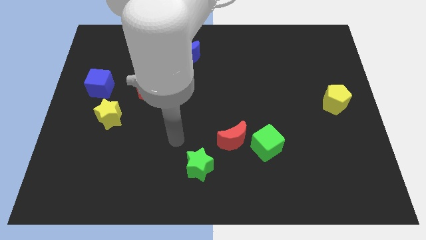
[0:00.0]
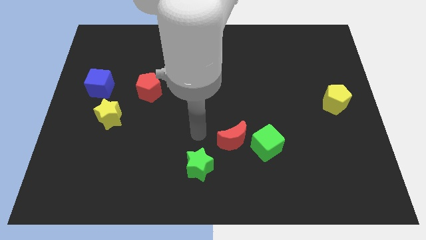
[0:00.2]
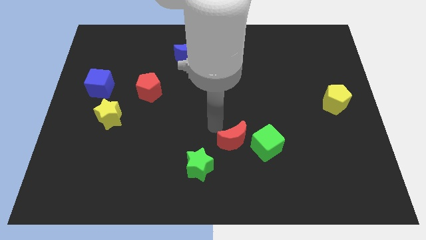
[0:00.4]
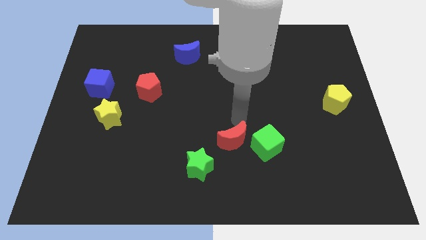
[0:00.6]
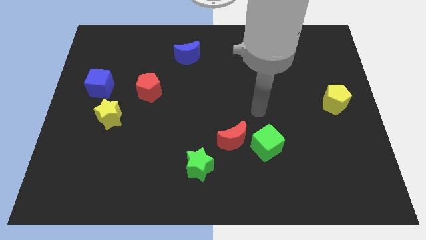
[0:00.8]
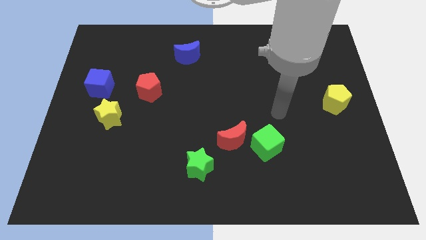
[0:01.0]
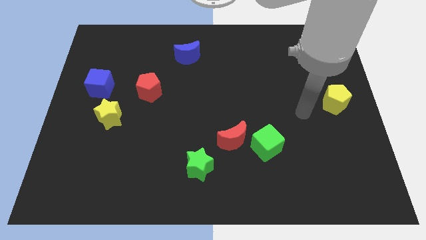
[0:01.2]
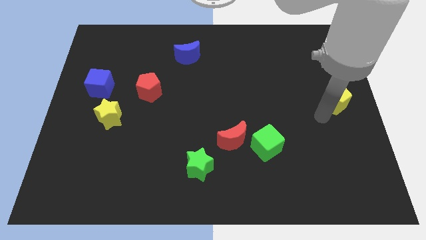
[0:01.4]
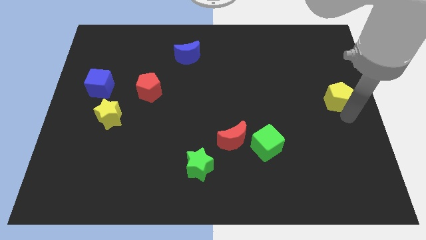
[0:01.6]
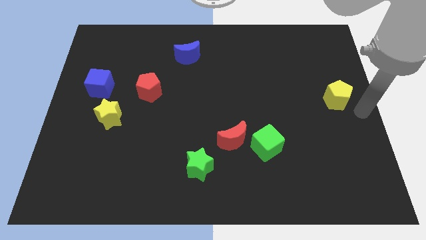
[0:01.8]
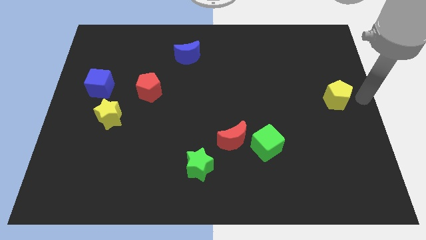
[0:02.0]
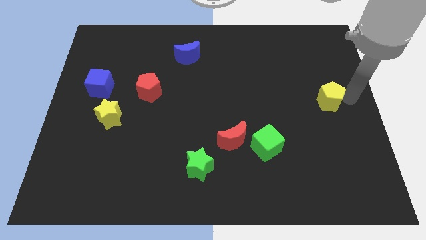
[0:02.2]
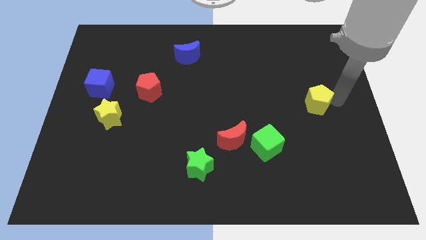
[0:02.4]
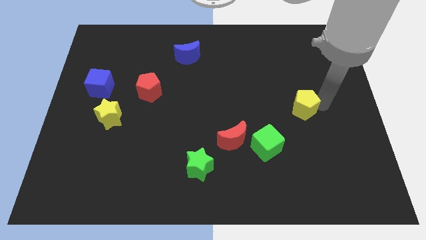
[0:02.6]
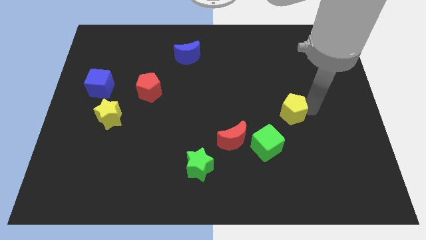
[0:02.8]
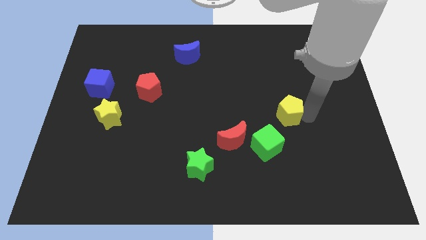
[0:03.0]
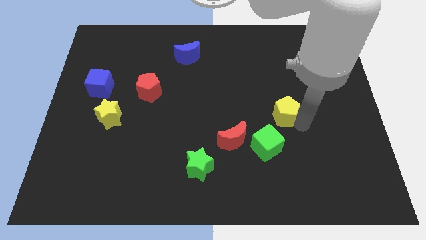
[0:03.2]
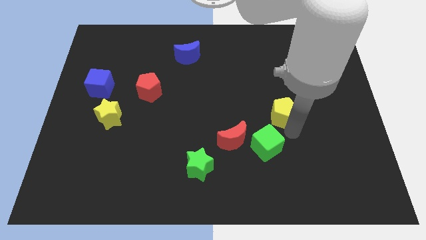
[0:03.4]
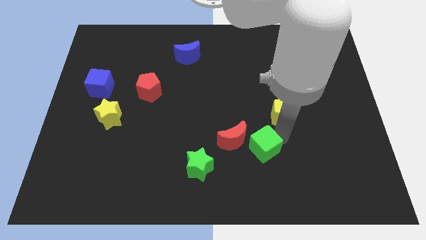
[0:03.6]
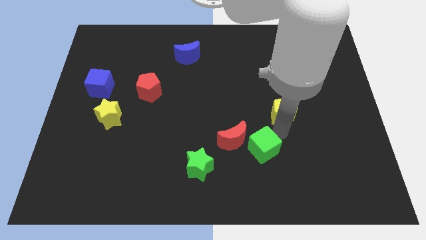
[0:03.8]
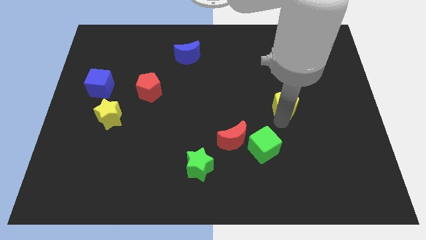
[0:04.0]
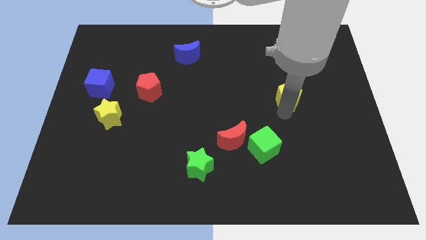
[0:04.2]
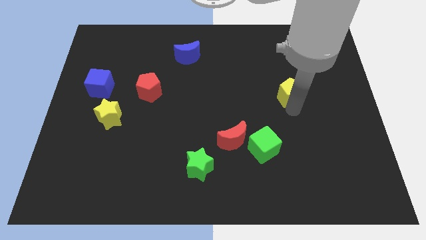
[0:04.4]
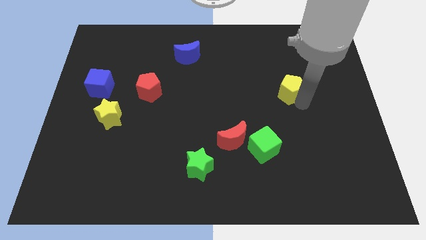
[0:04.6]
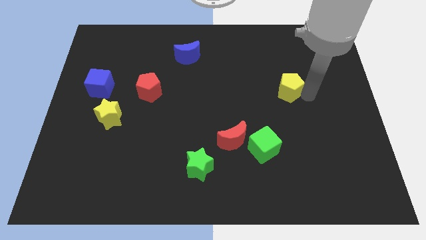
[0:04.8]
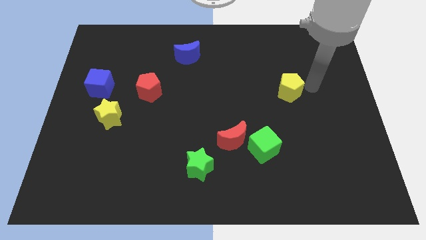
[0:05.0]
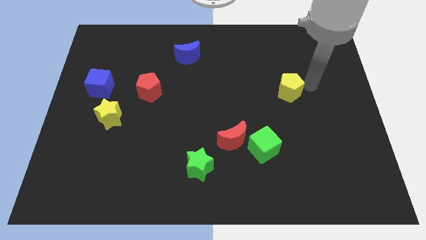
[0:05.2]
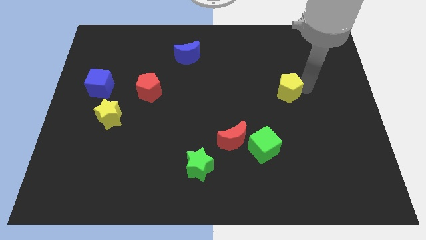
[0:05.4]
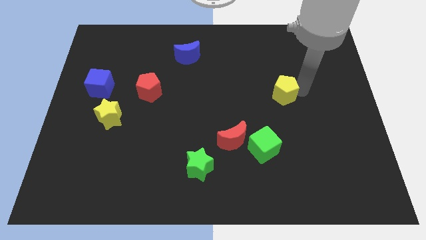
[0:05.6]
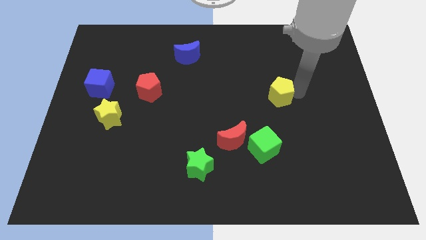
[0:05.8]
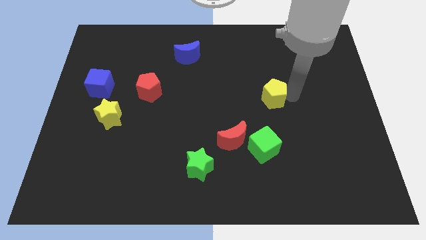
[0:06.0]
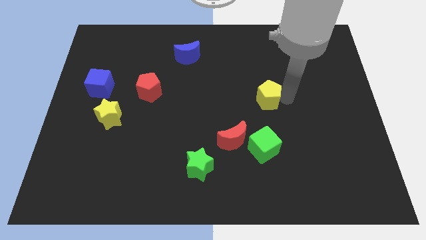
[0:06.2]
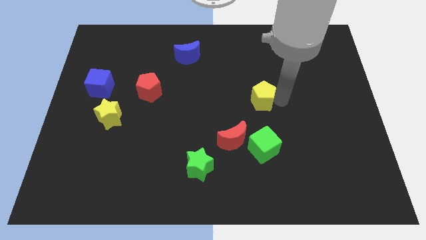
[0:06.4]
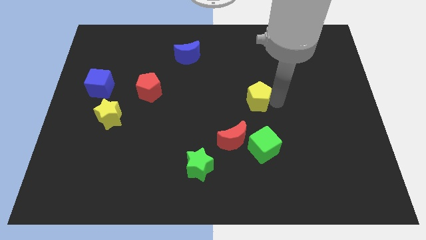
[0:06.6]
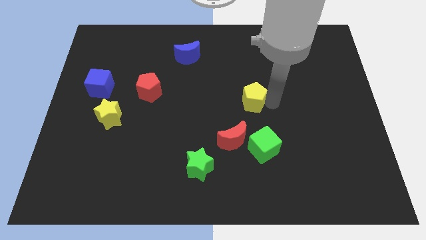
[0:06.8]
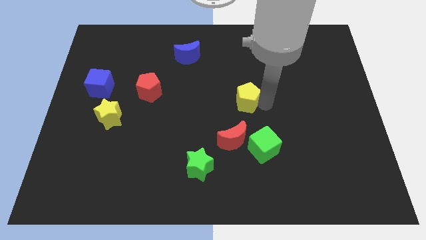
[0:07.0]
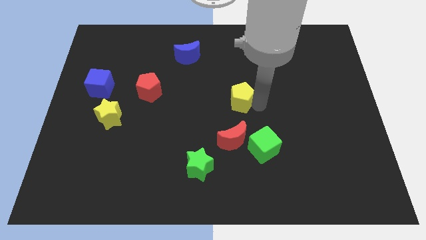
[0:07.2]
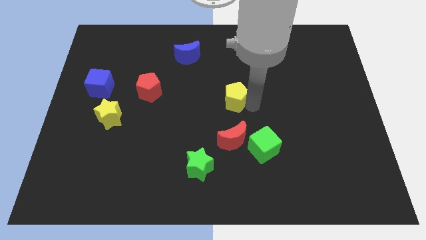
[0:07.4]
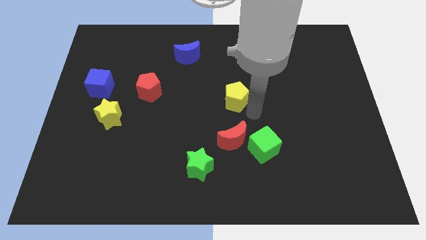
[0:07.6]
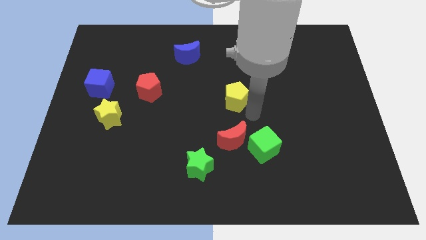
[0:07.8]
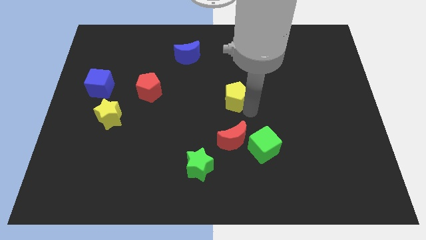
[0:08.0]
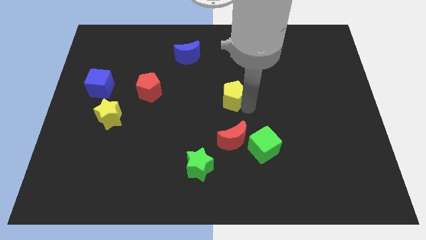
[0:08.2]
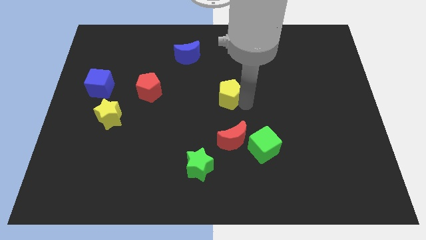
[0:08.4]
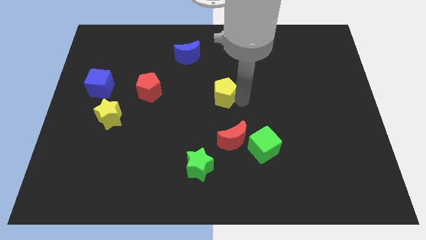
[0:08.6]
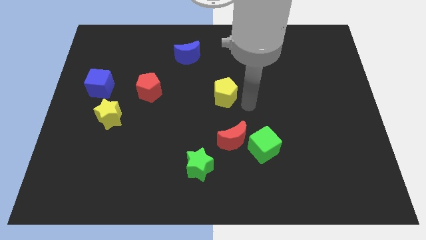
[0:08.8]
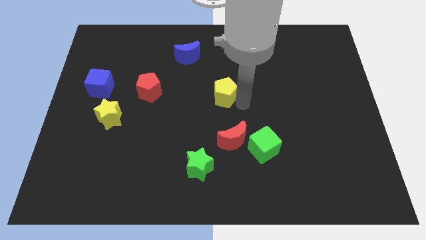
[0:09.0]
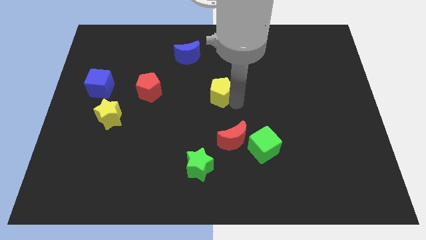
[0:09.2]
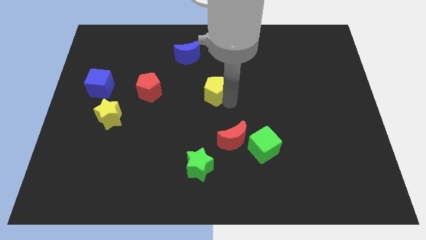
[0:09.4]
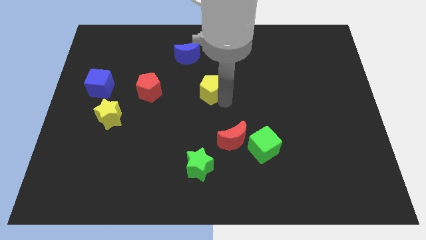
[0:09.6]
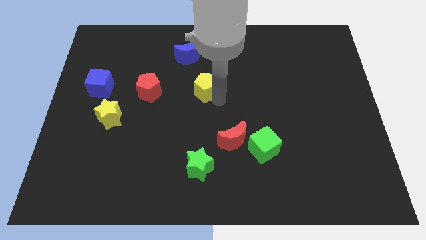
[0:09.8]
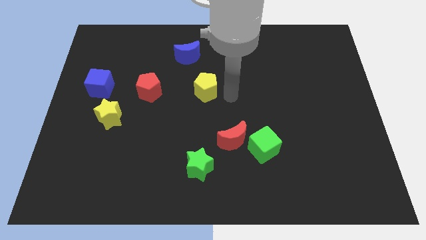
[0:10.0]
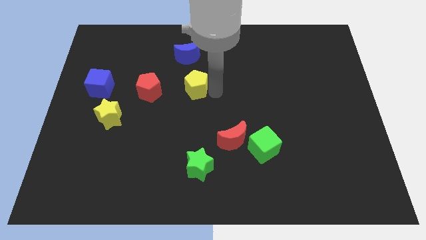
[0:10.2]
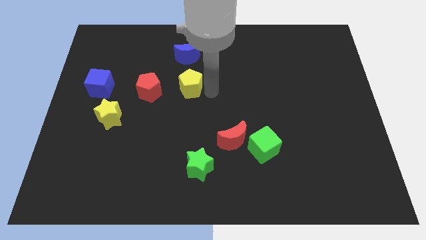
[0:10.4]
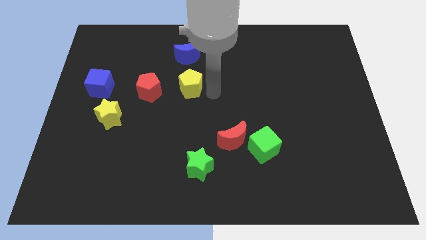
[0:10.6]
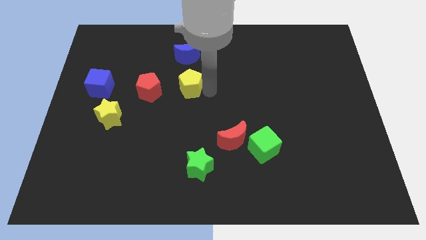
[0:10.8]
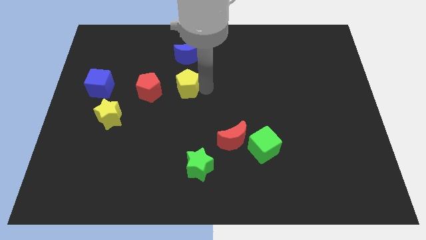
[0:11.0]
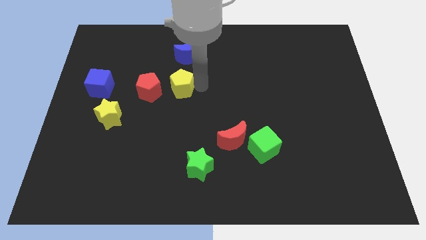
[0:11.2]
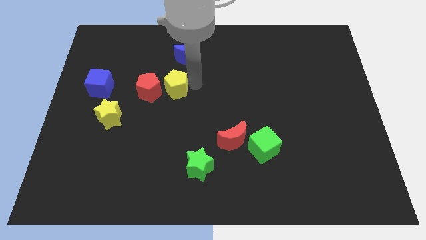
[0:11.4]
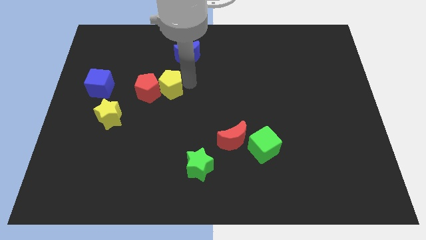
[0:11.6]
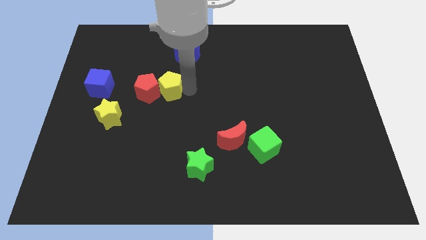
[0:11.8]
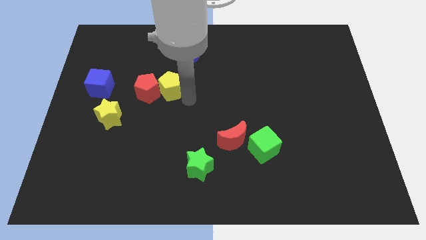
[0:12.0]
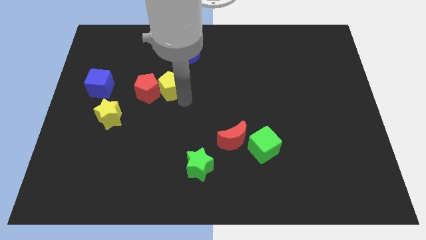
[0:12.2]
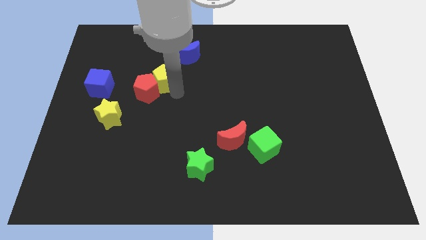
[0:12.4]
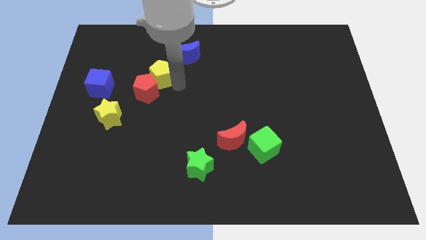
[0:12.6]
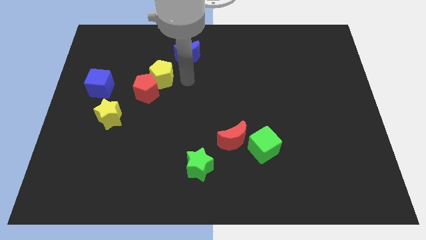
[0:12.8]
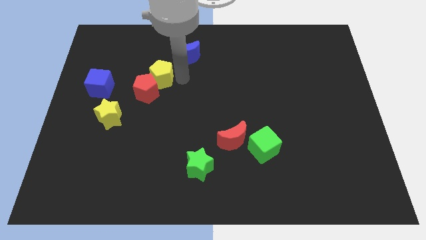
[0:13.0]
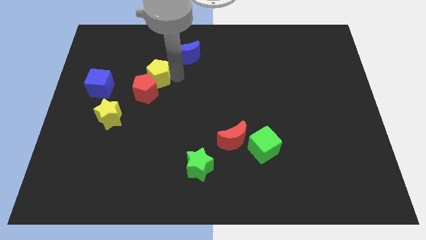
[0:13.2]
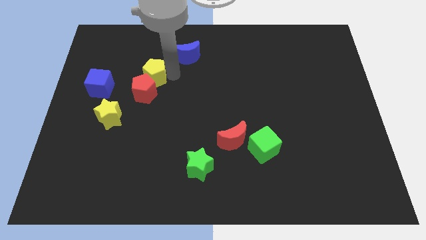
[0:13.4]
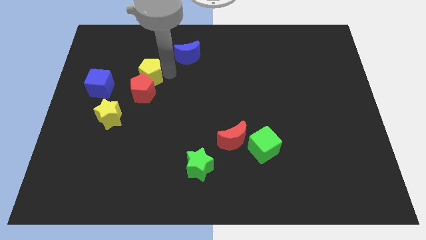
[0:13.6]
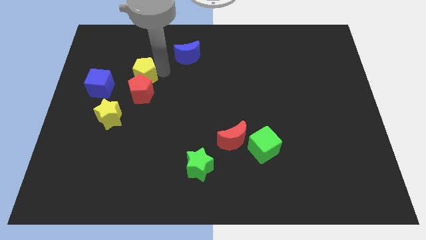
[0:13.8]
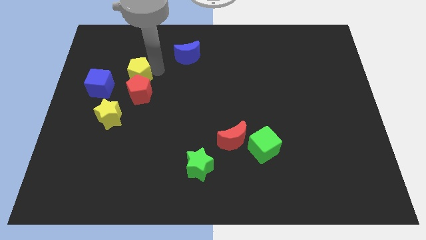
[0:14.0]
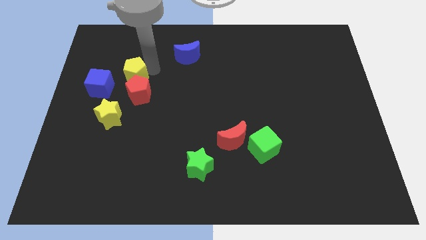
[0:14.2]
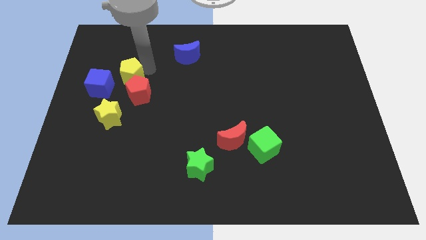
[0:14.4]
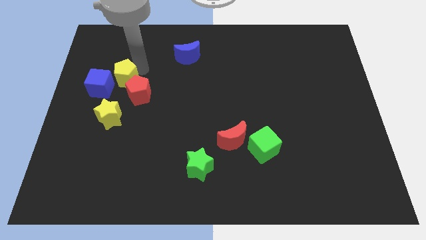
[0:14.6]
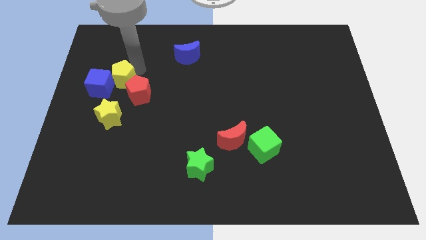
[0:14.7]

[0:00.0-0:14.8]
push the yellow pentagon close to the blue cube

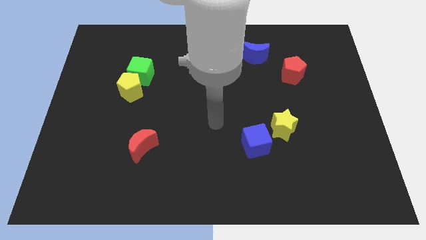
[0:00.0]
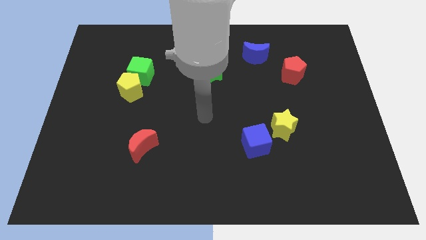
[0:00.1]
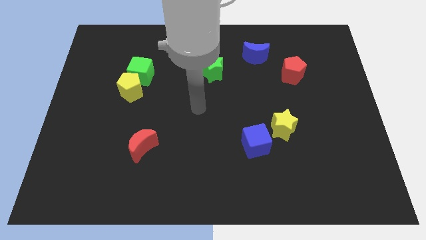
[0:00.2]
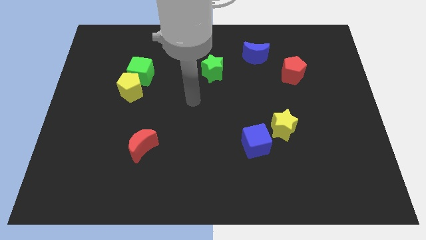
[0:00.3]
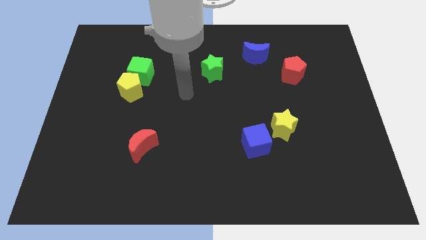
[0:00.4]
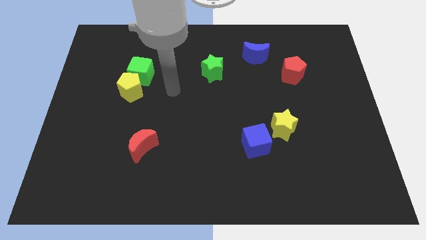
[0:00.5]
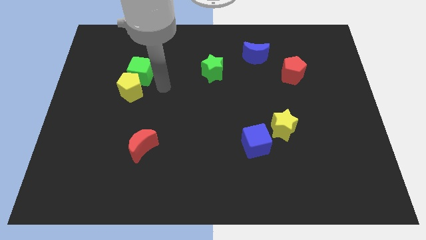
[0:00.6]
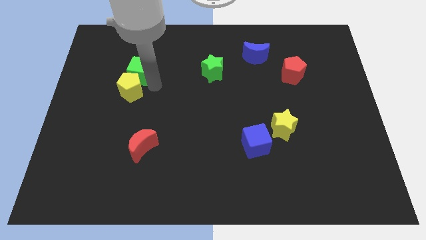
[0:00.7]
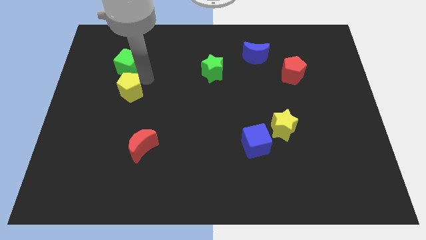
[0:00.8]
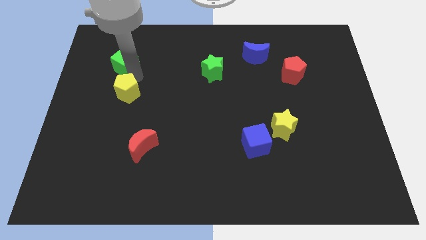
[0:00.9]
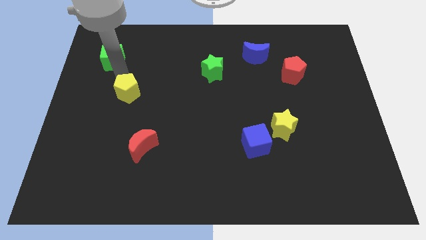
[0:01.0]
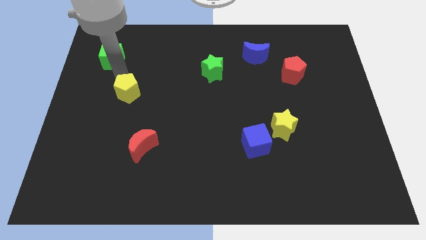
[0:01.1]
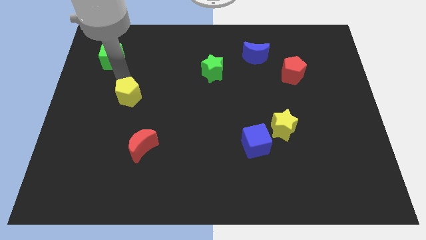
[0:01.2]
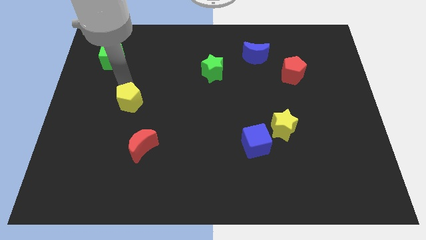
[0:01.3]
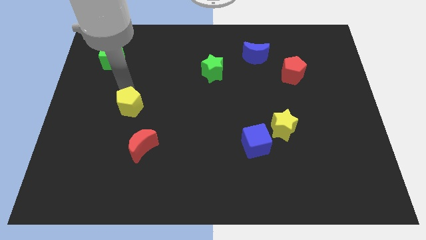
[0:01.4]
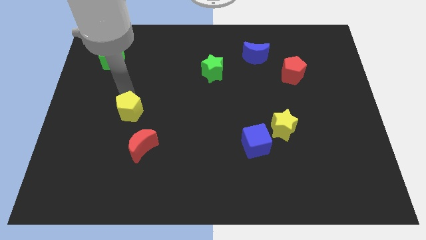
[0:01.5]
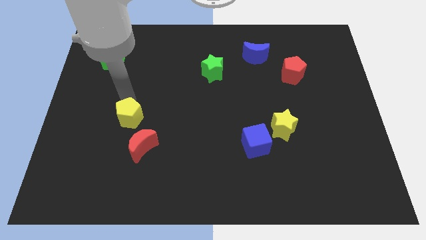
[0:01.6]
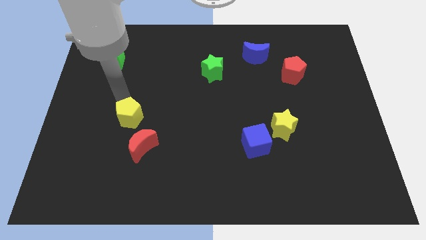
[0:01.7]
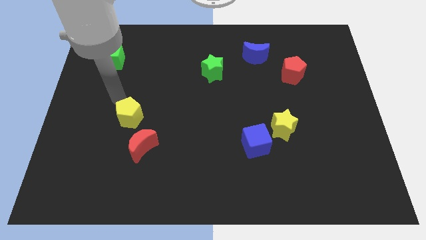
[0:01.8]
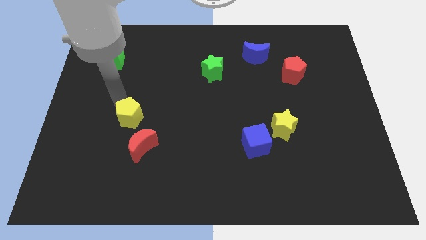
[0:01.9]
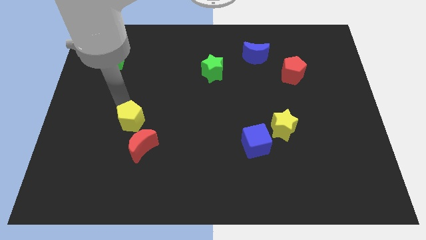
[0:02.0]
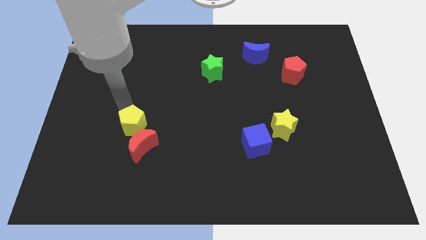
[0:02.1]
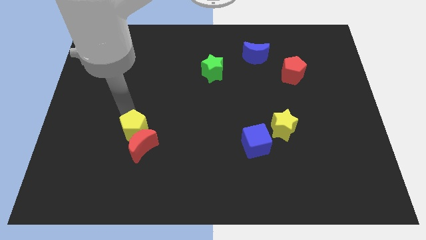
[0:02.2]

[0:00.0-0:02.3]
put the yellow pentagon next to the red moon
